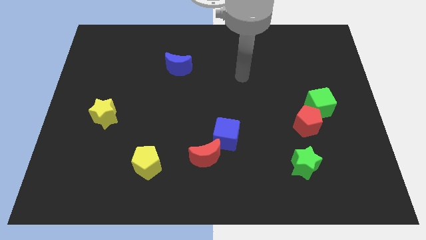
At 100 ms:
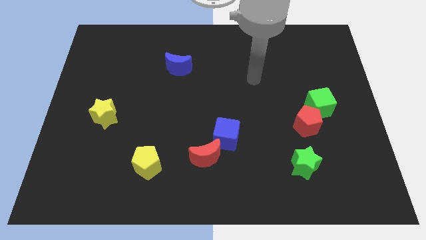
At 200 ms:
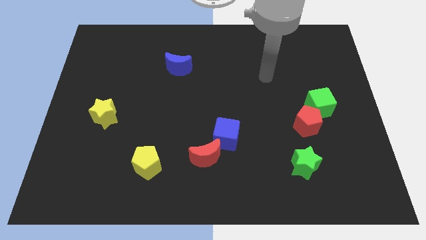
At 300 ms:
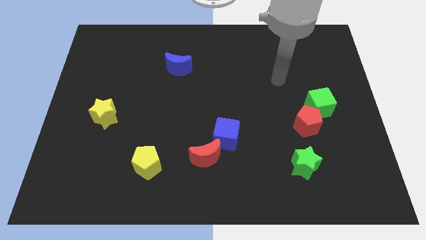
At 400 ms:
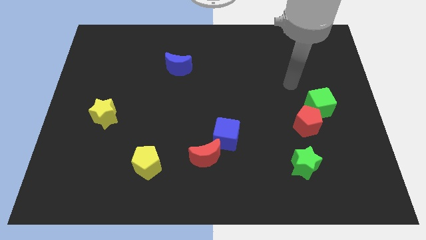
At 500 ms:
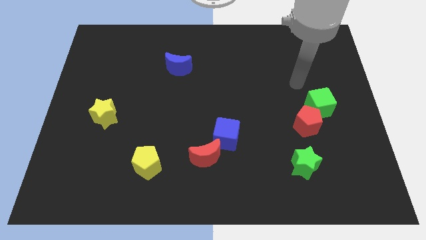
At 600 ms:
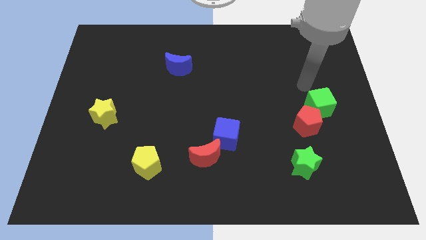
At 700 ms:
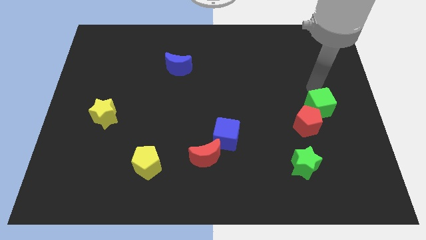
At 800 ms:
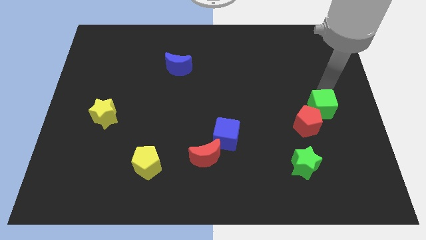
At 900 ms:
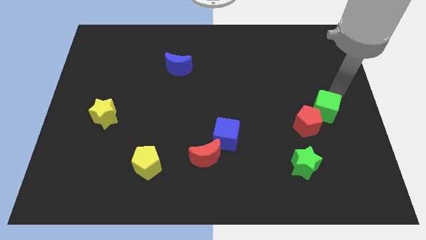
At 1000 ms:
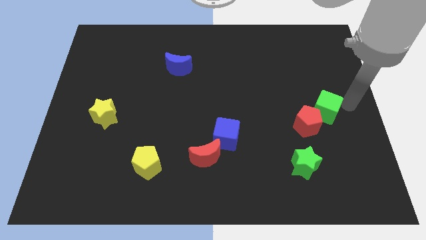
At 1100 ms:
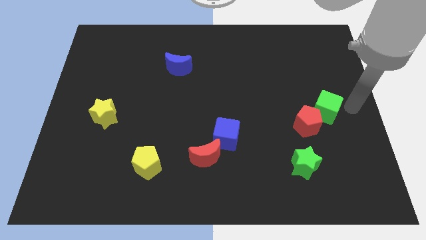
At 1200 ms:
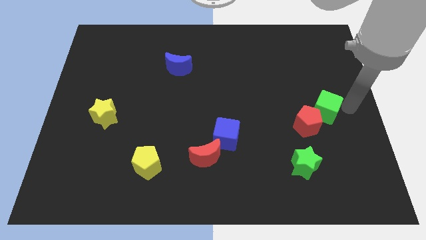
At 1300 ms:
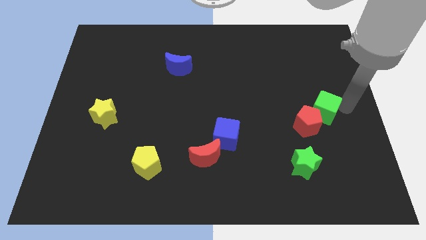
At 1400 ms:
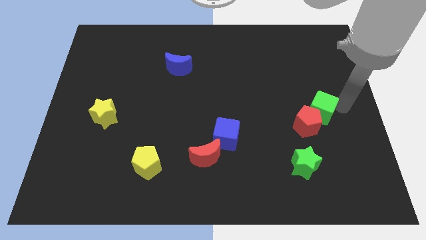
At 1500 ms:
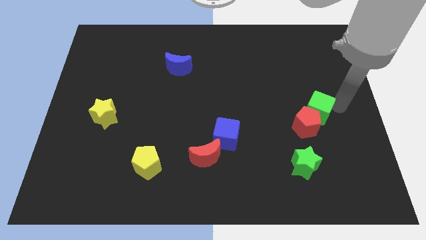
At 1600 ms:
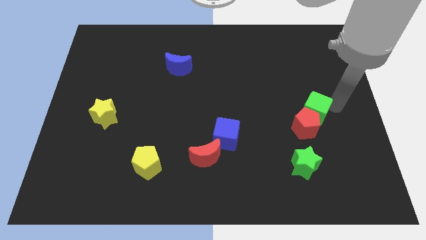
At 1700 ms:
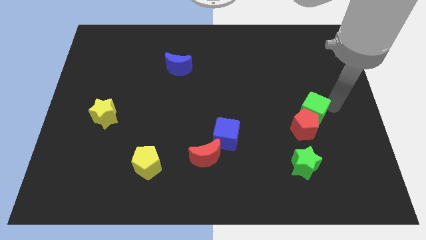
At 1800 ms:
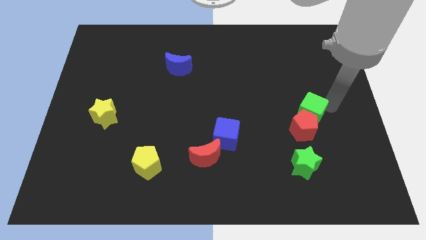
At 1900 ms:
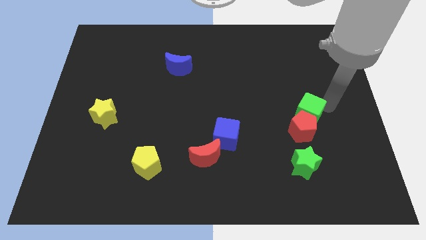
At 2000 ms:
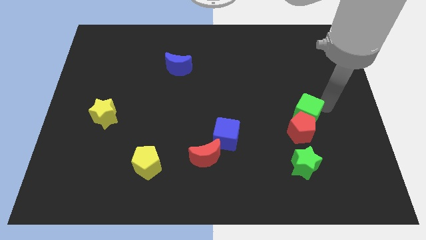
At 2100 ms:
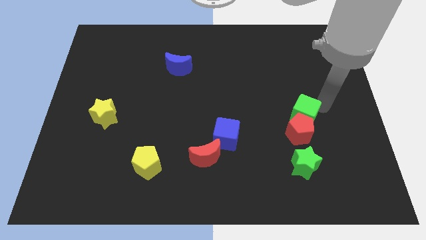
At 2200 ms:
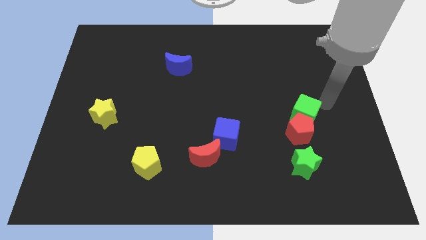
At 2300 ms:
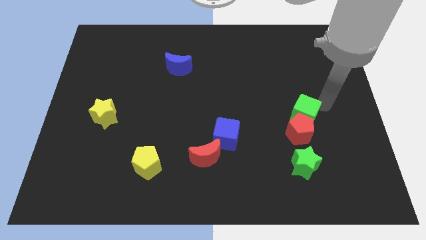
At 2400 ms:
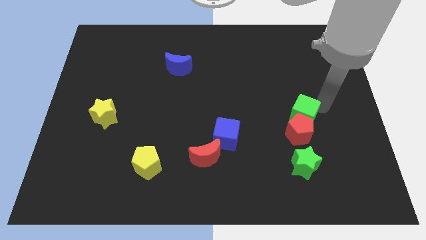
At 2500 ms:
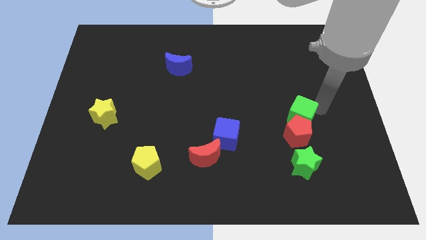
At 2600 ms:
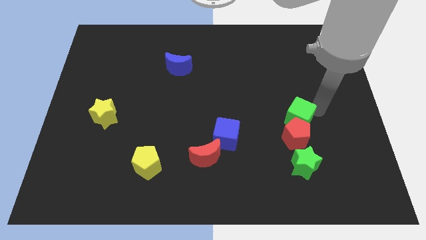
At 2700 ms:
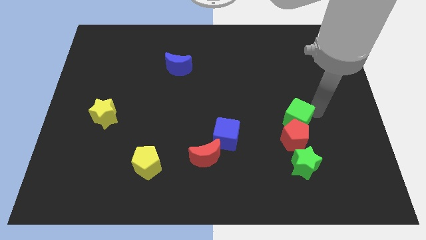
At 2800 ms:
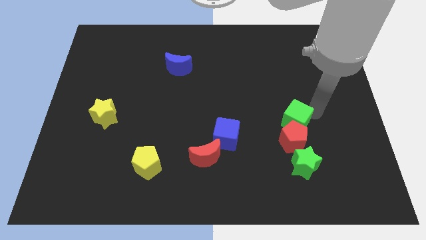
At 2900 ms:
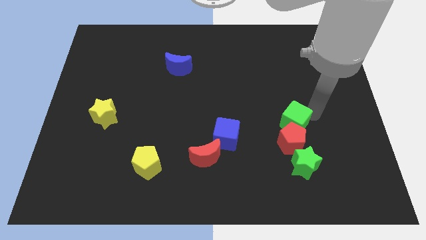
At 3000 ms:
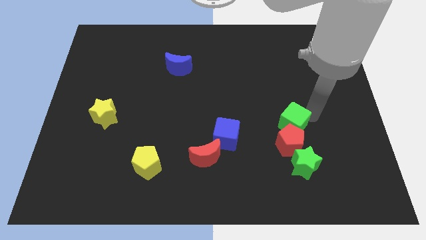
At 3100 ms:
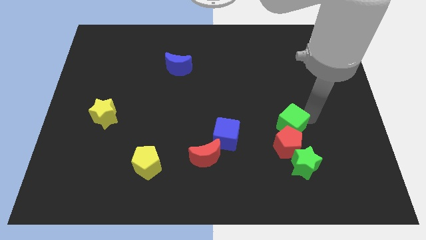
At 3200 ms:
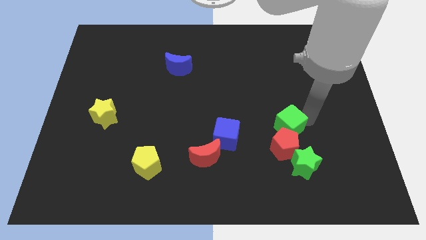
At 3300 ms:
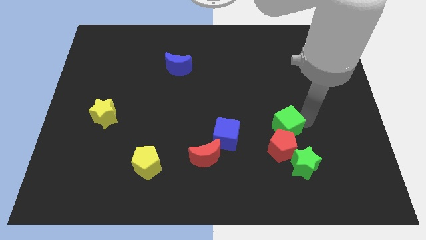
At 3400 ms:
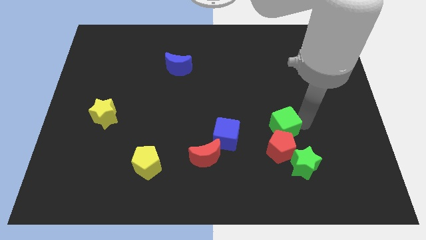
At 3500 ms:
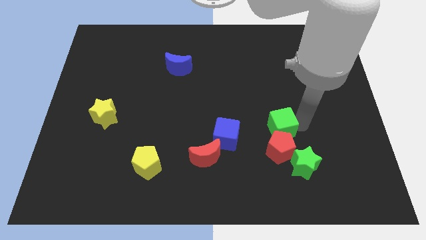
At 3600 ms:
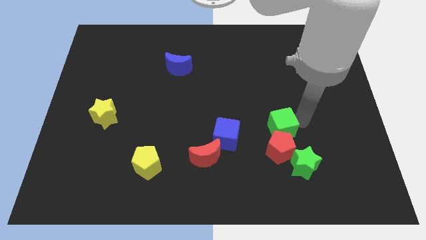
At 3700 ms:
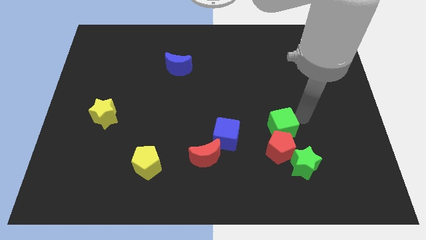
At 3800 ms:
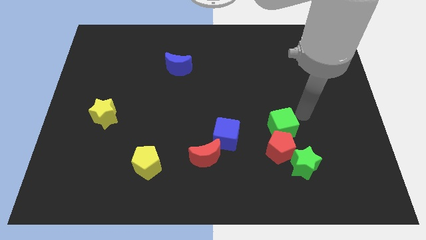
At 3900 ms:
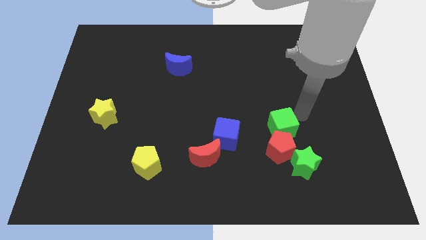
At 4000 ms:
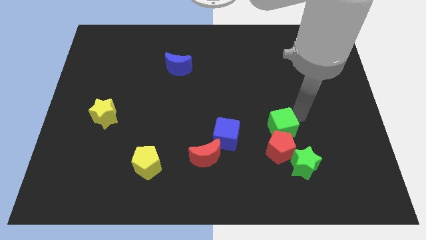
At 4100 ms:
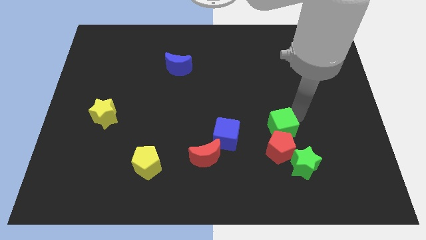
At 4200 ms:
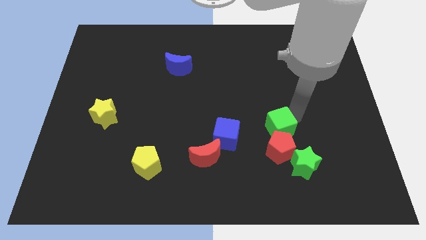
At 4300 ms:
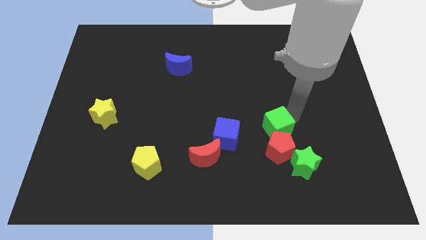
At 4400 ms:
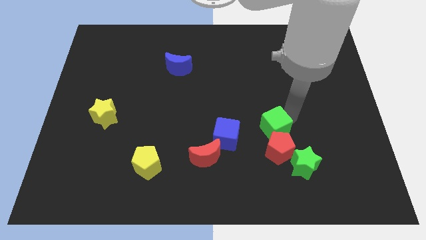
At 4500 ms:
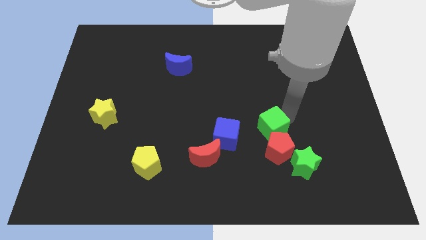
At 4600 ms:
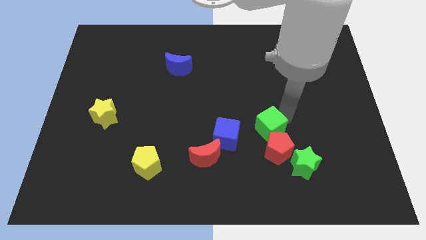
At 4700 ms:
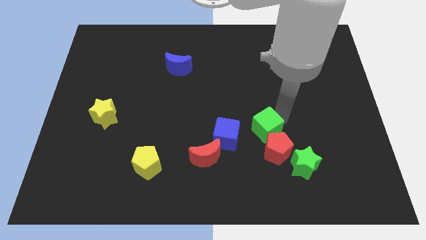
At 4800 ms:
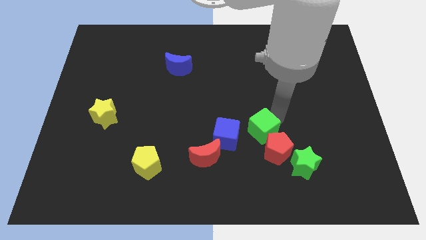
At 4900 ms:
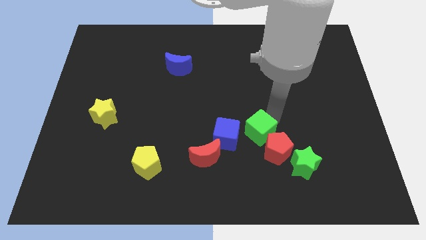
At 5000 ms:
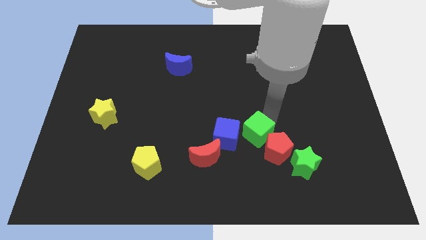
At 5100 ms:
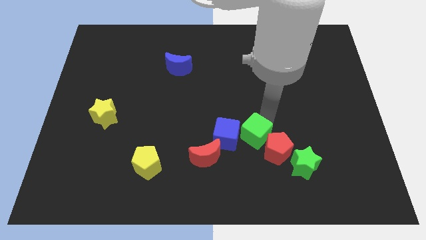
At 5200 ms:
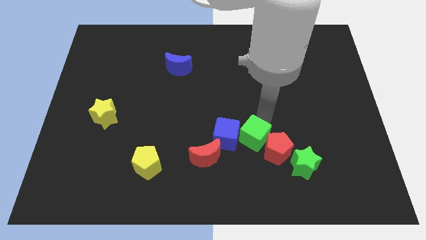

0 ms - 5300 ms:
move the green cube diagonally down and to the right of the blue cube

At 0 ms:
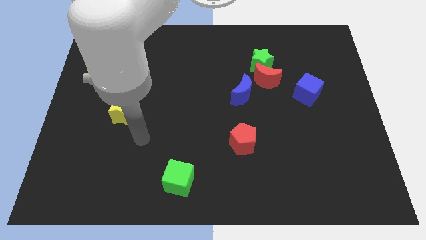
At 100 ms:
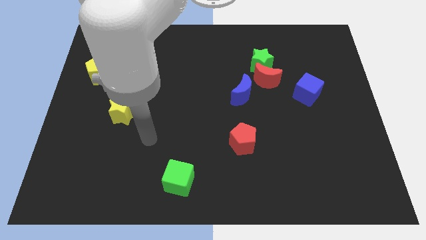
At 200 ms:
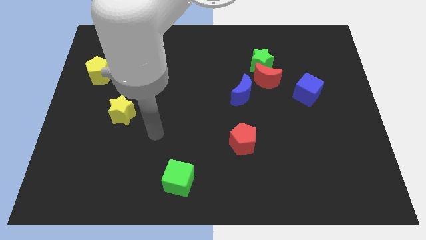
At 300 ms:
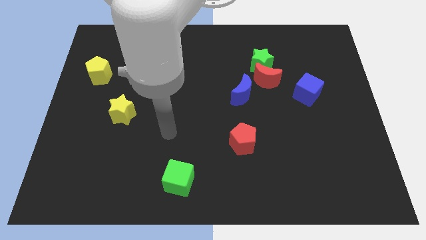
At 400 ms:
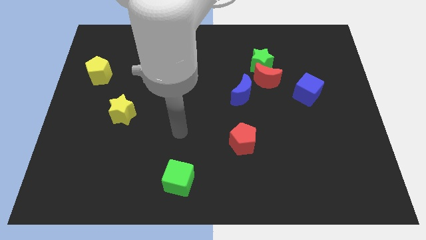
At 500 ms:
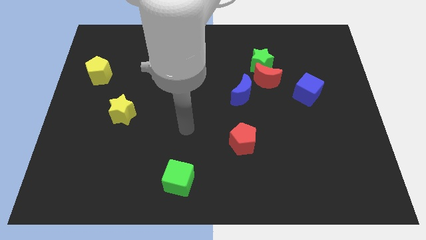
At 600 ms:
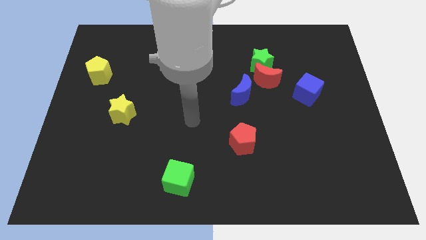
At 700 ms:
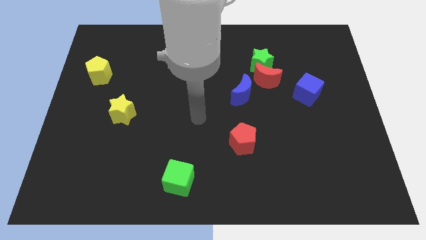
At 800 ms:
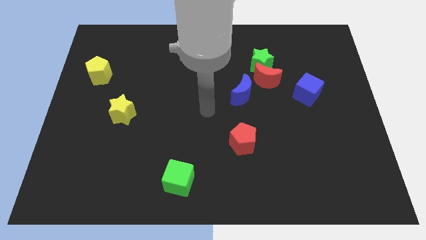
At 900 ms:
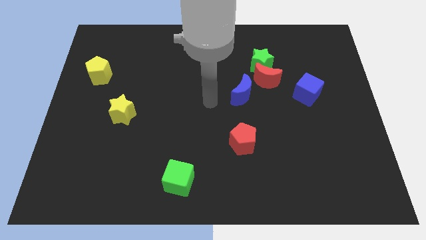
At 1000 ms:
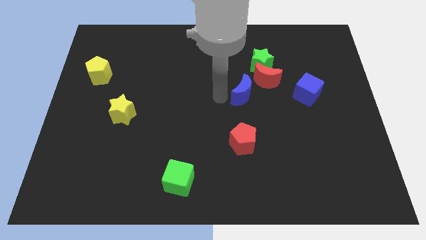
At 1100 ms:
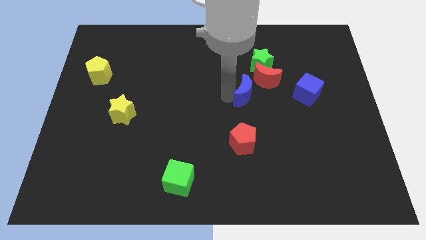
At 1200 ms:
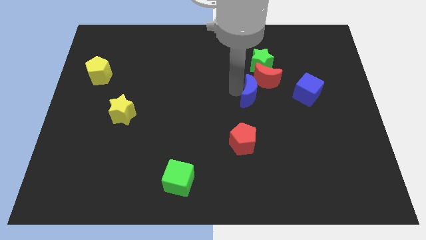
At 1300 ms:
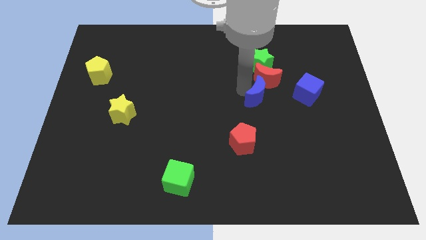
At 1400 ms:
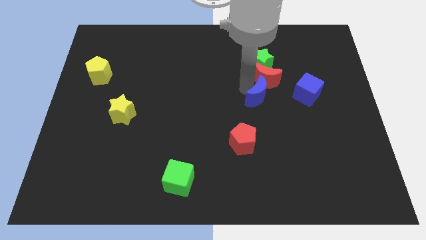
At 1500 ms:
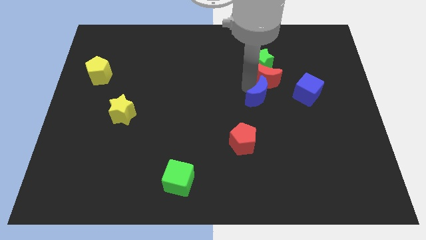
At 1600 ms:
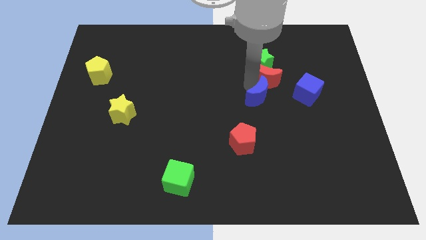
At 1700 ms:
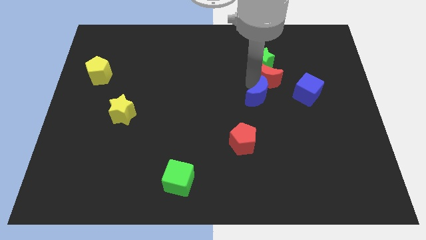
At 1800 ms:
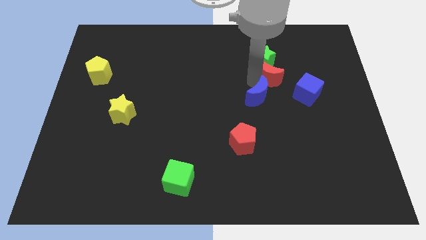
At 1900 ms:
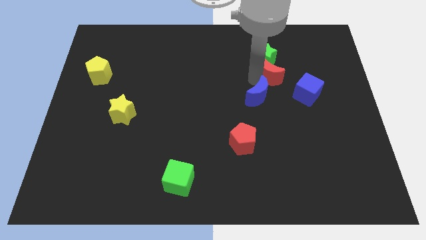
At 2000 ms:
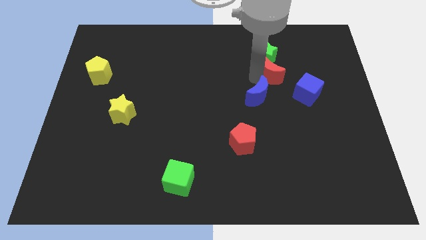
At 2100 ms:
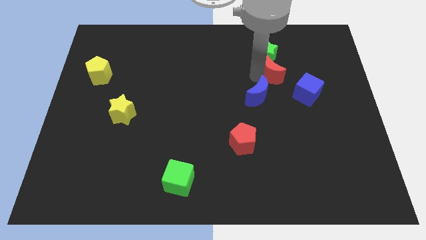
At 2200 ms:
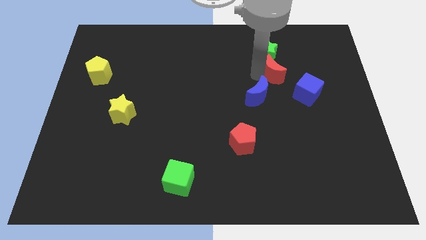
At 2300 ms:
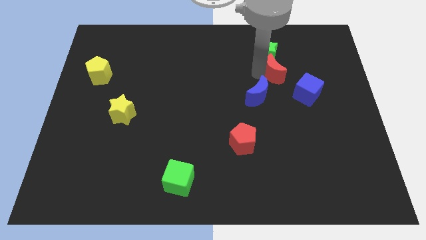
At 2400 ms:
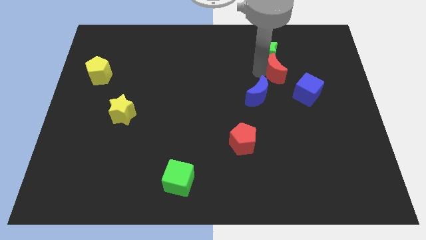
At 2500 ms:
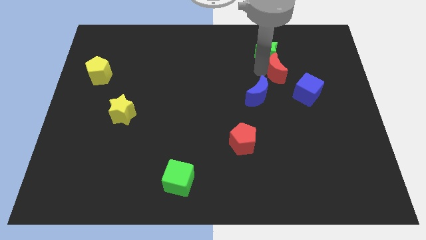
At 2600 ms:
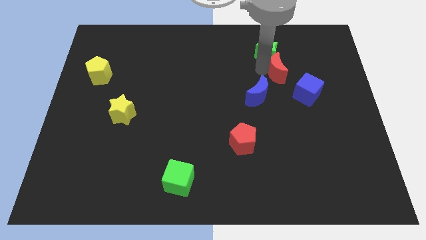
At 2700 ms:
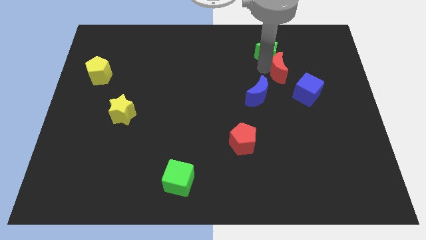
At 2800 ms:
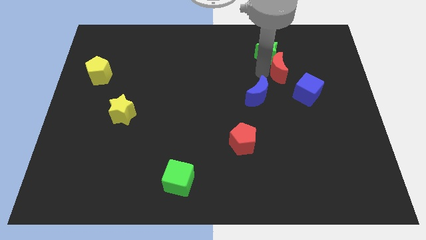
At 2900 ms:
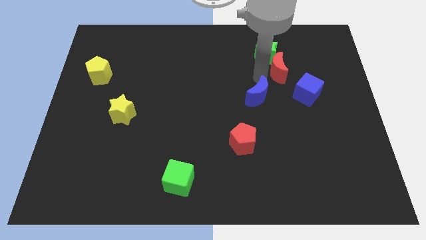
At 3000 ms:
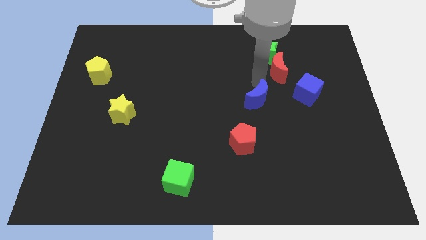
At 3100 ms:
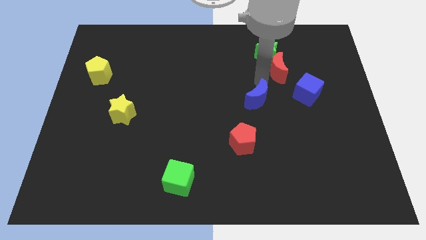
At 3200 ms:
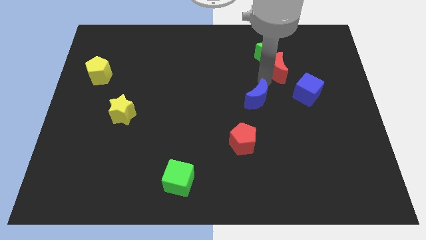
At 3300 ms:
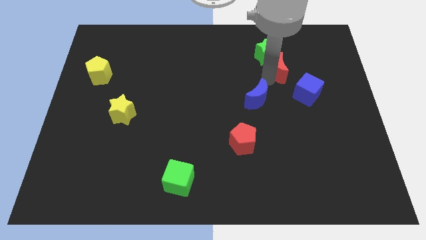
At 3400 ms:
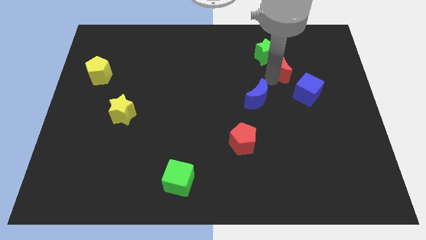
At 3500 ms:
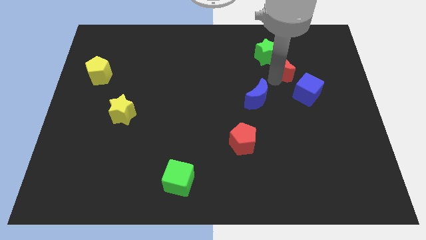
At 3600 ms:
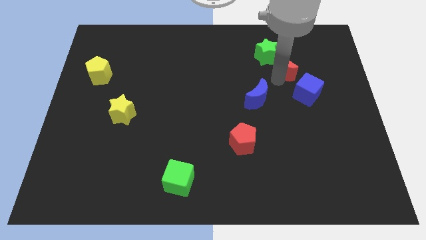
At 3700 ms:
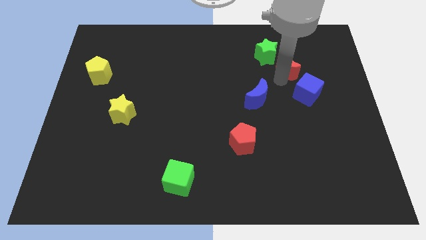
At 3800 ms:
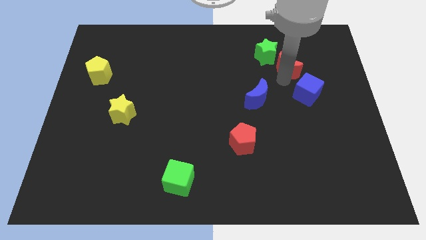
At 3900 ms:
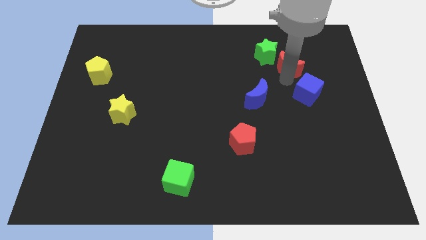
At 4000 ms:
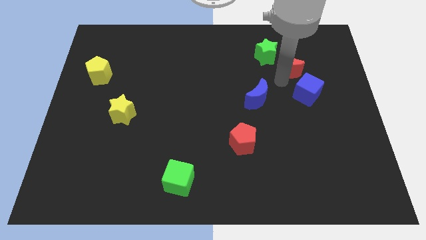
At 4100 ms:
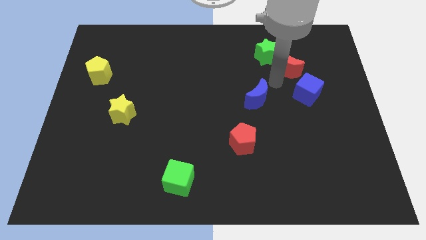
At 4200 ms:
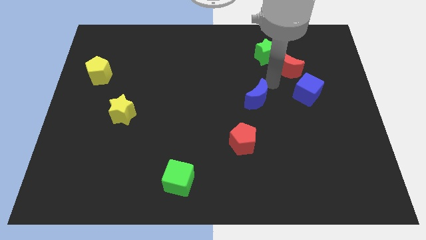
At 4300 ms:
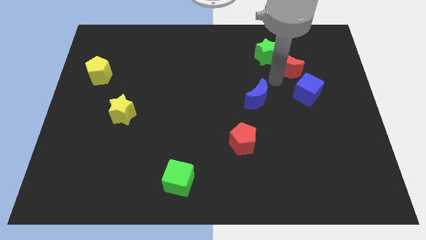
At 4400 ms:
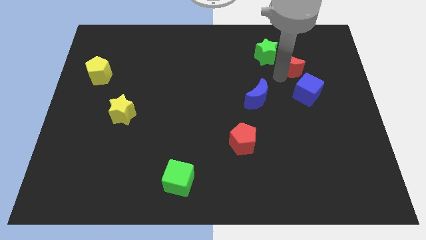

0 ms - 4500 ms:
move the red moon to the right of the green star
